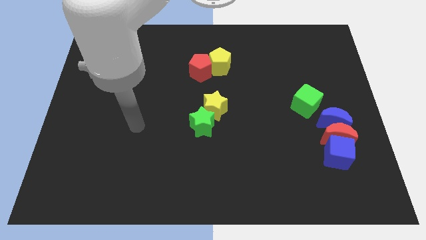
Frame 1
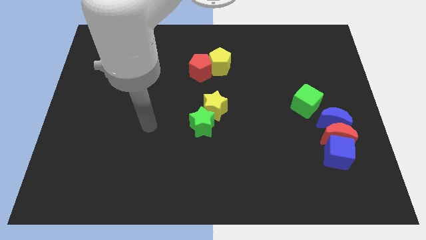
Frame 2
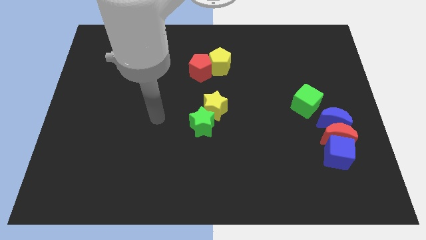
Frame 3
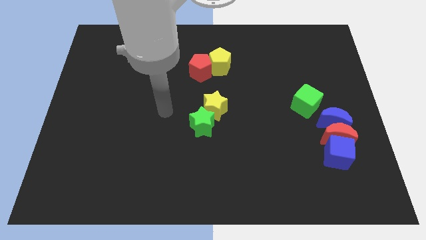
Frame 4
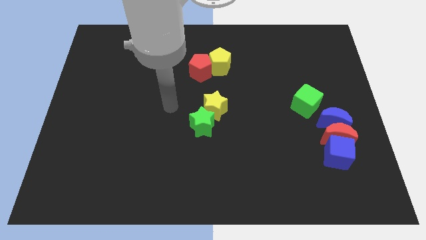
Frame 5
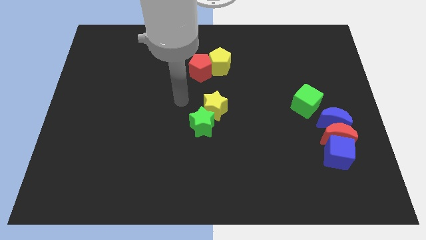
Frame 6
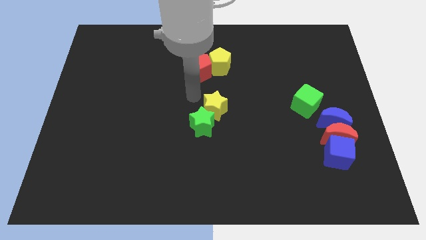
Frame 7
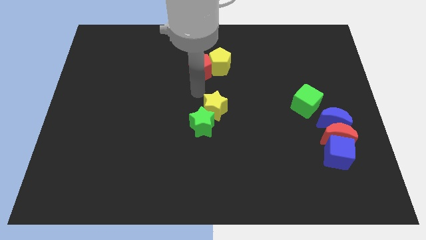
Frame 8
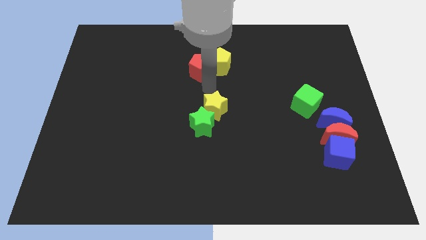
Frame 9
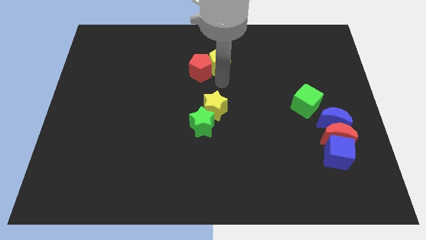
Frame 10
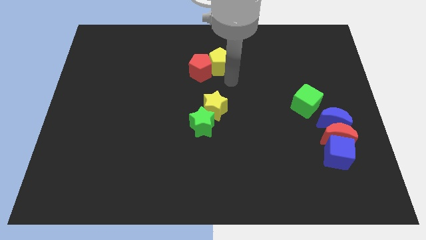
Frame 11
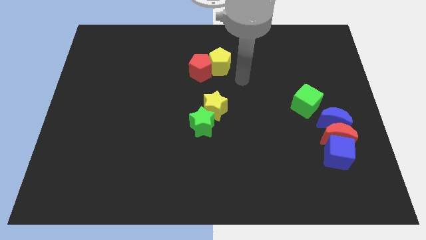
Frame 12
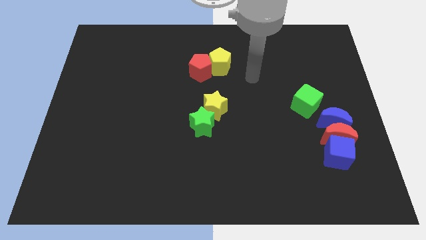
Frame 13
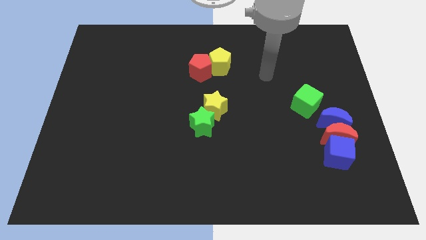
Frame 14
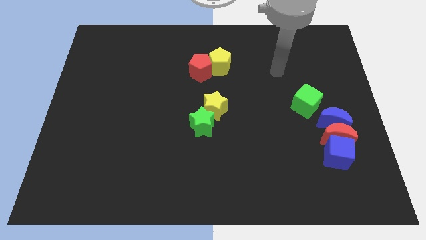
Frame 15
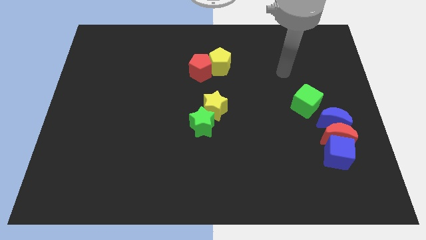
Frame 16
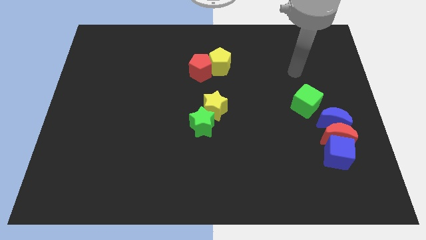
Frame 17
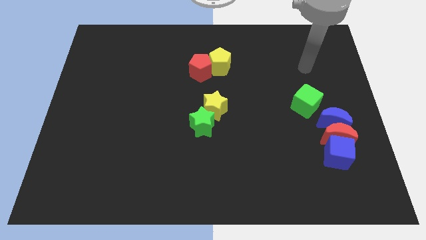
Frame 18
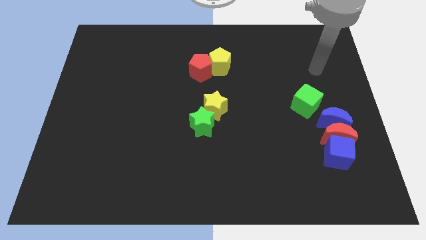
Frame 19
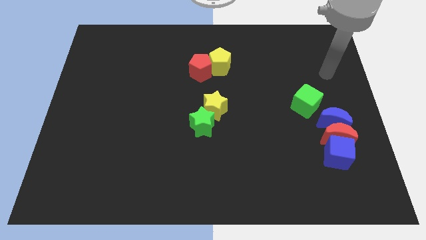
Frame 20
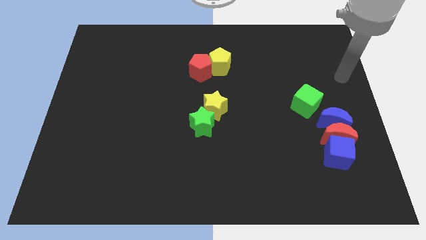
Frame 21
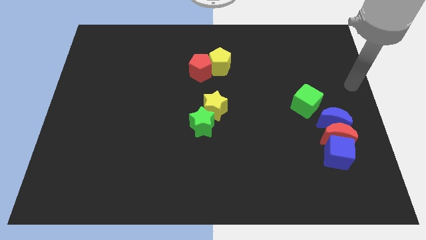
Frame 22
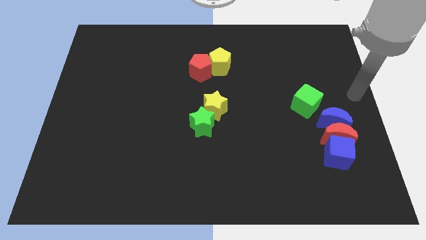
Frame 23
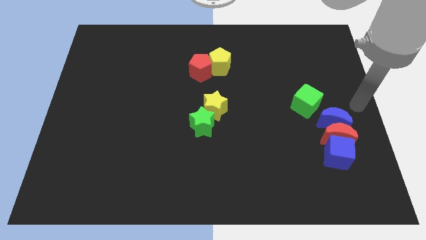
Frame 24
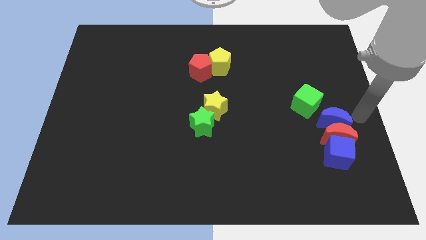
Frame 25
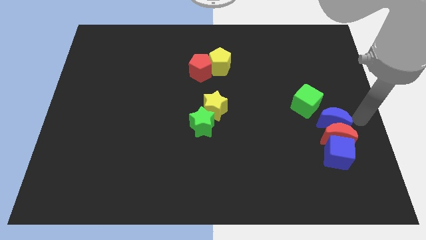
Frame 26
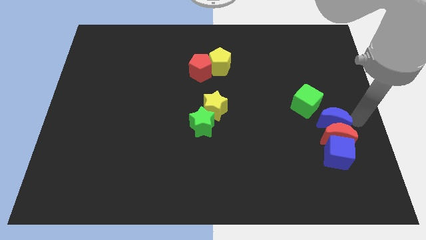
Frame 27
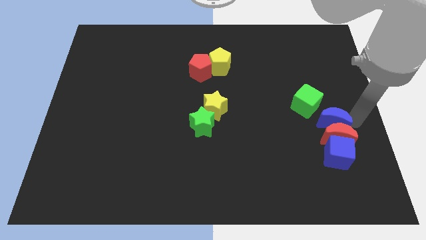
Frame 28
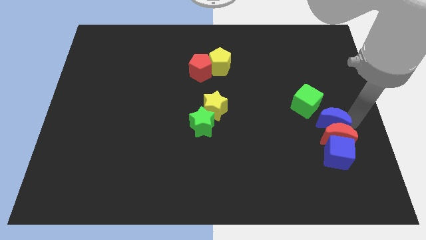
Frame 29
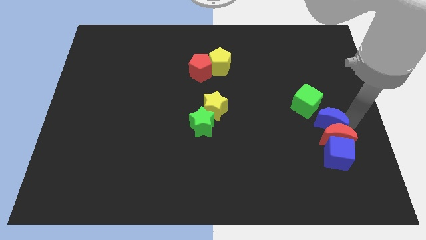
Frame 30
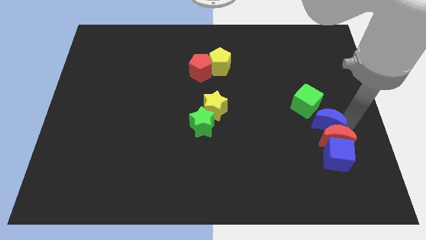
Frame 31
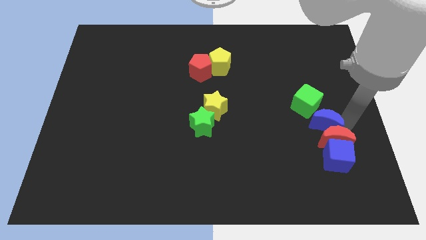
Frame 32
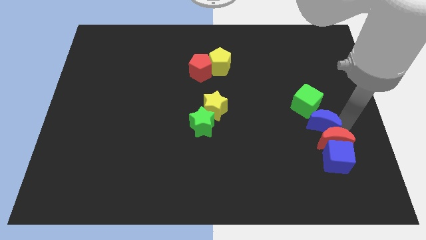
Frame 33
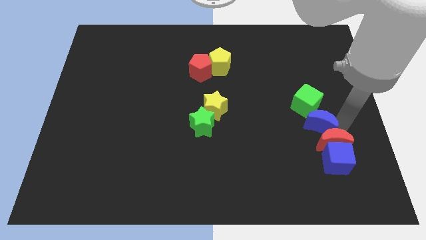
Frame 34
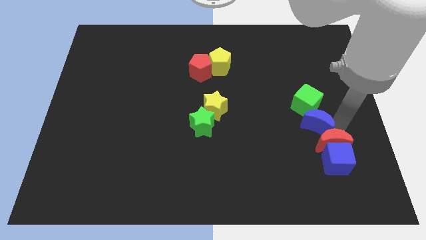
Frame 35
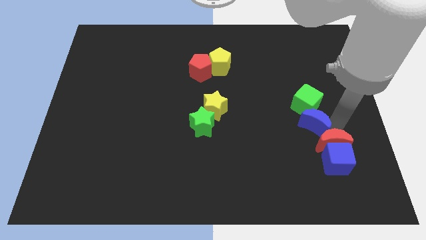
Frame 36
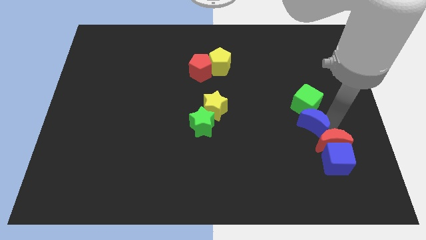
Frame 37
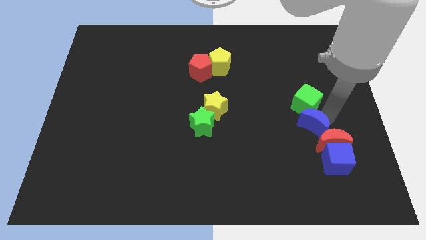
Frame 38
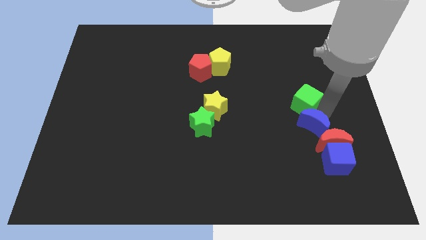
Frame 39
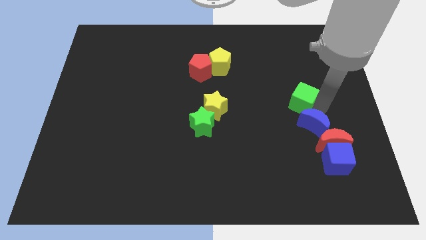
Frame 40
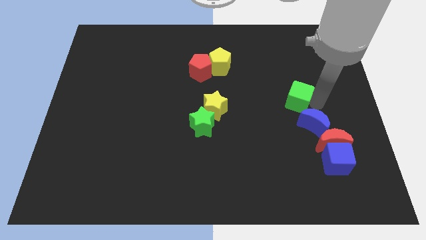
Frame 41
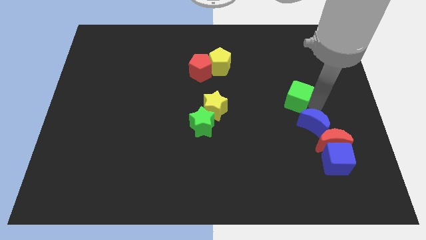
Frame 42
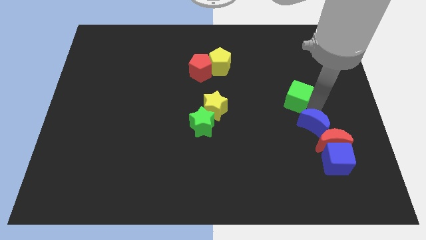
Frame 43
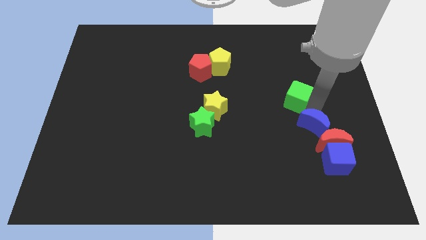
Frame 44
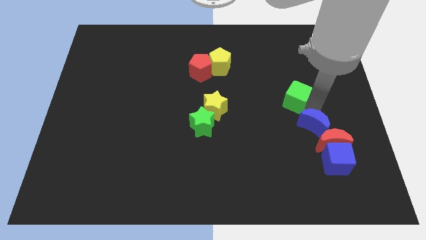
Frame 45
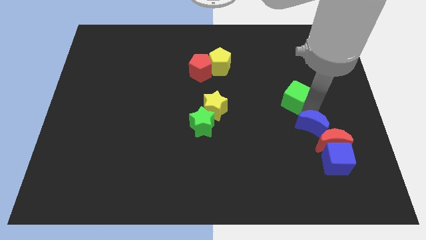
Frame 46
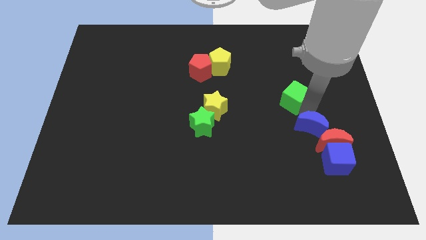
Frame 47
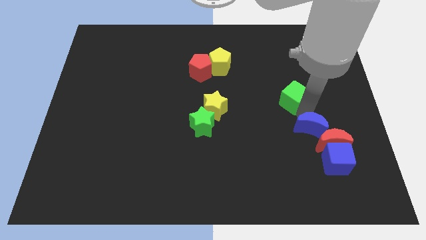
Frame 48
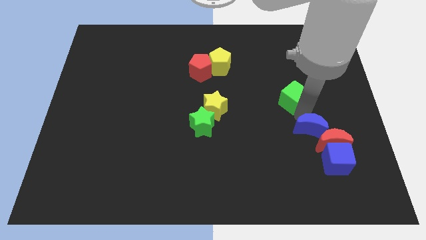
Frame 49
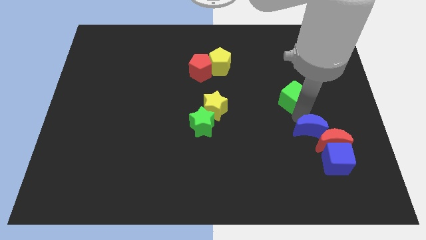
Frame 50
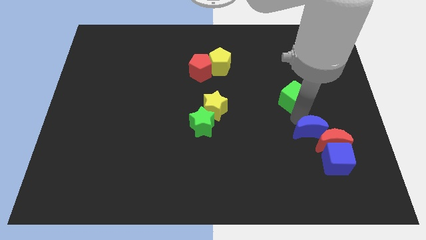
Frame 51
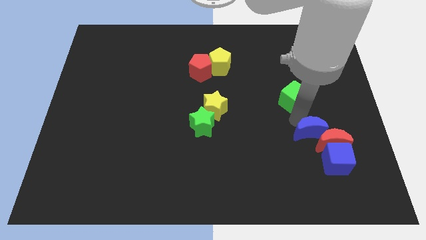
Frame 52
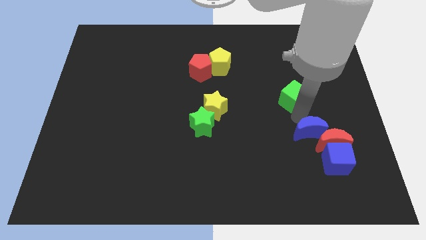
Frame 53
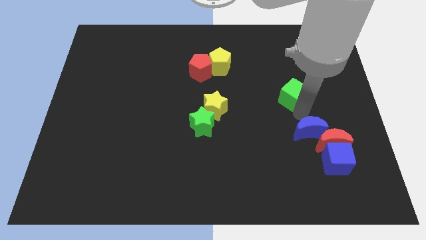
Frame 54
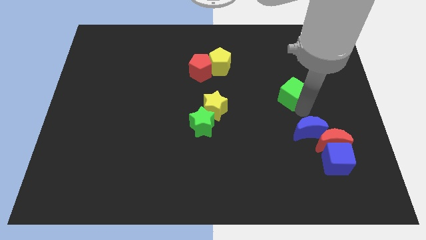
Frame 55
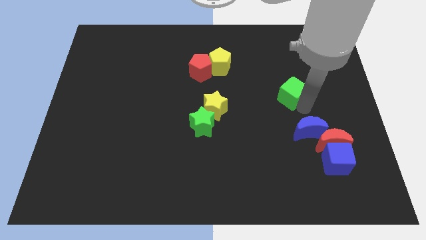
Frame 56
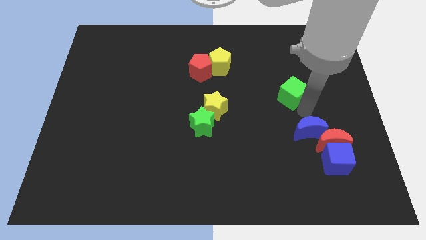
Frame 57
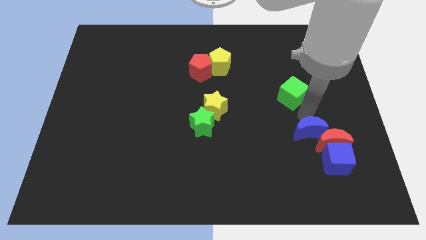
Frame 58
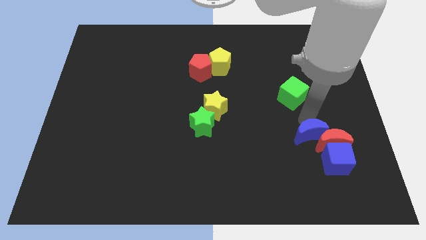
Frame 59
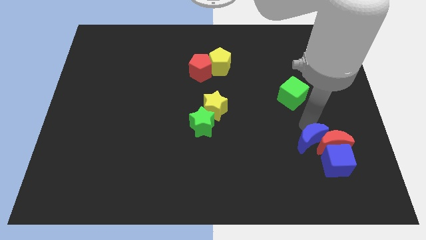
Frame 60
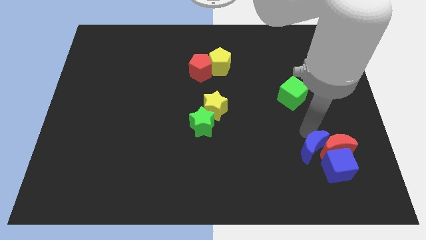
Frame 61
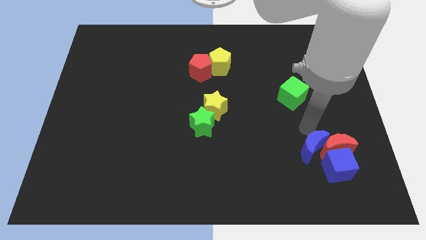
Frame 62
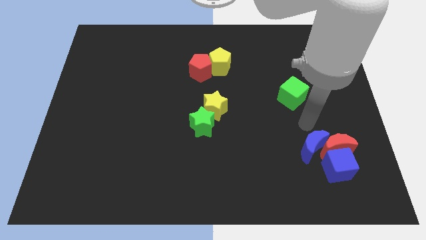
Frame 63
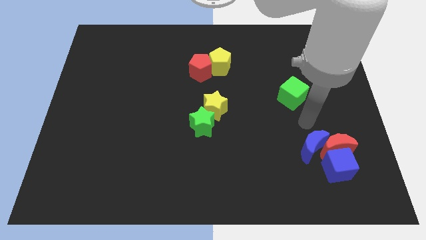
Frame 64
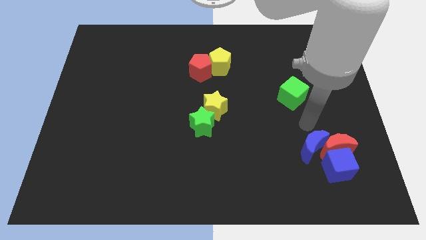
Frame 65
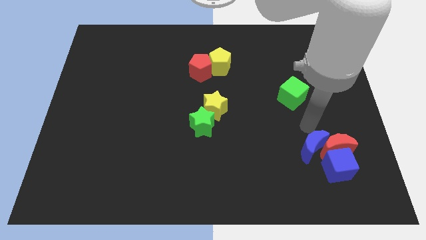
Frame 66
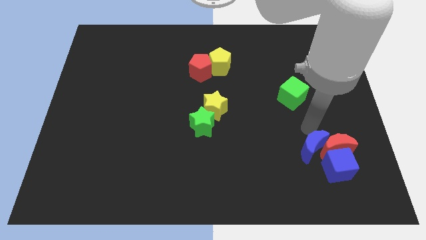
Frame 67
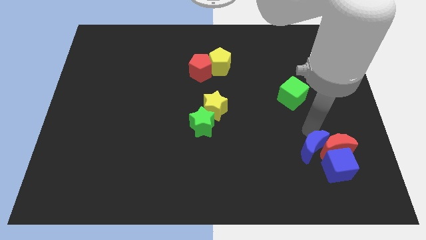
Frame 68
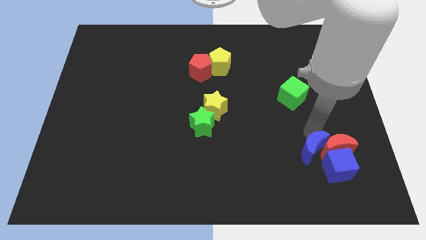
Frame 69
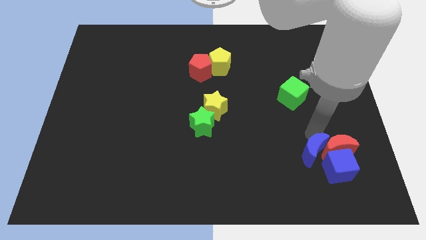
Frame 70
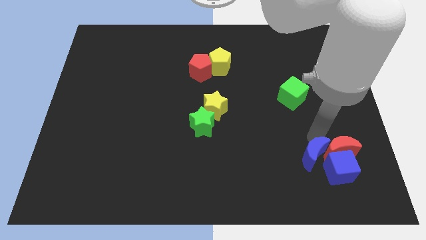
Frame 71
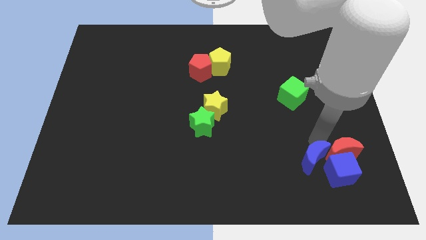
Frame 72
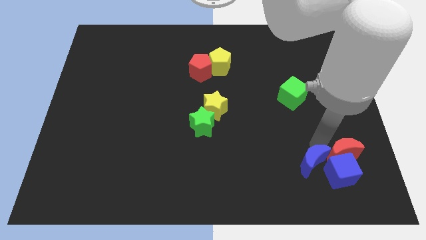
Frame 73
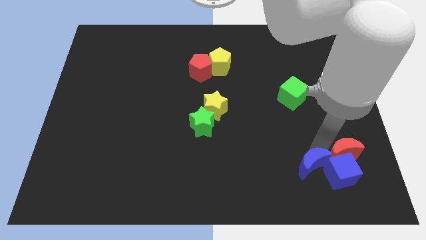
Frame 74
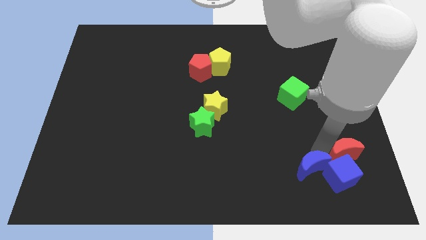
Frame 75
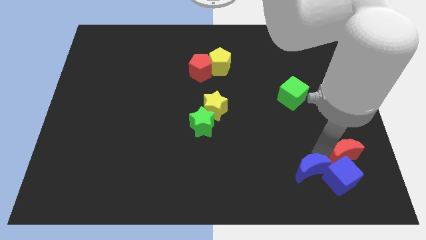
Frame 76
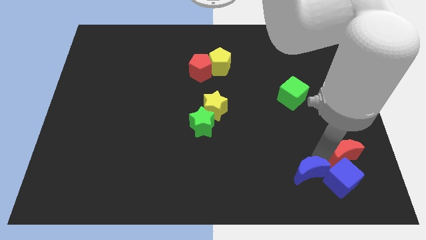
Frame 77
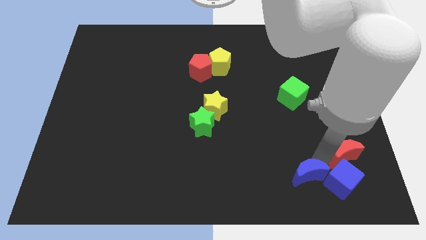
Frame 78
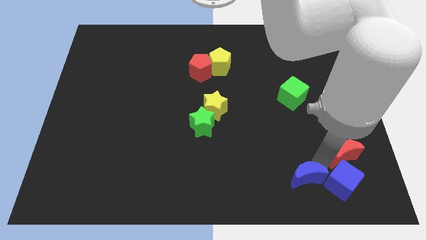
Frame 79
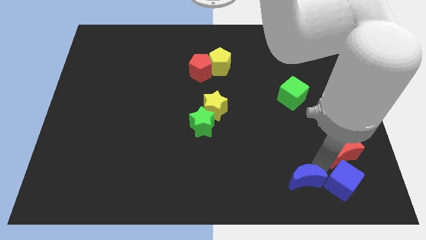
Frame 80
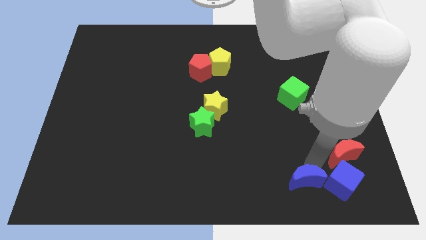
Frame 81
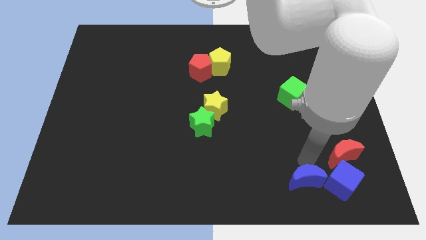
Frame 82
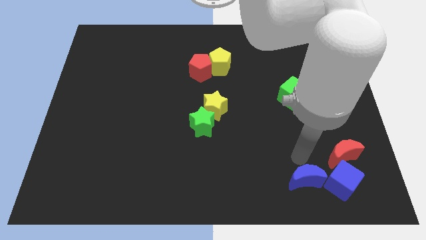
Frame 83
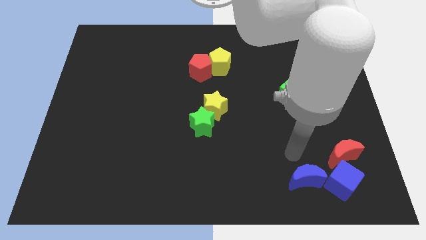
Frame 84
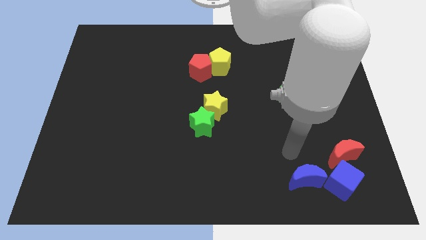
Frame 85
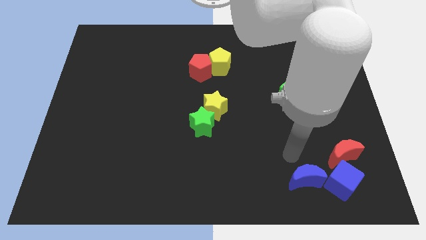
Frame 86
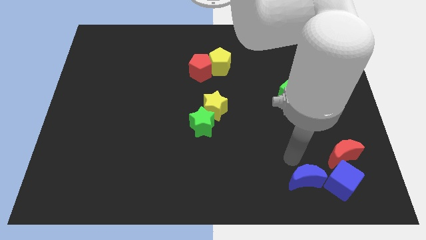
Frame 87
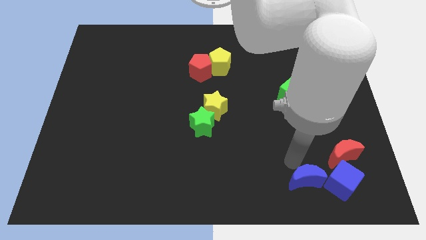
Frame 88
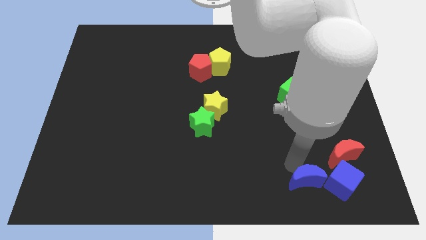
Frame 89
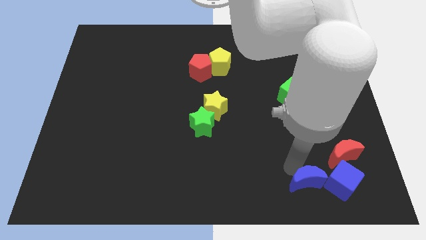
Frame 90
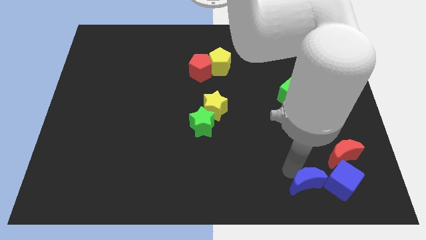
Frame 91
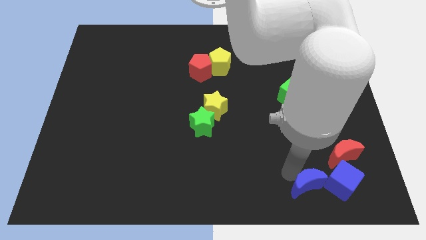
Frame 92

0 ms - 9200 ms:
move the blue moon to the bottom left of the blue cube
